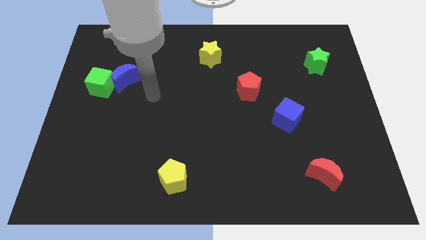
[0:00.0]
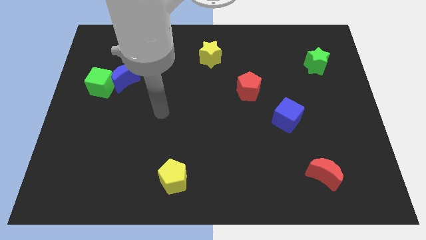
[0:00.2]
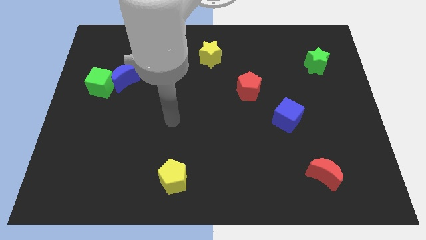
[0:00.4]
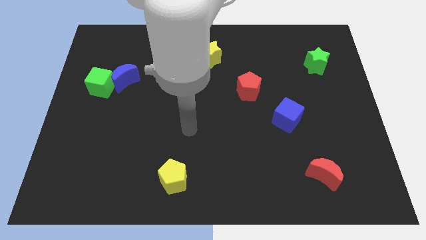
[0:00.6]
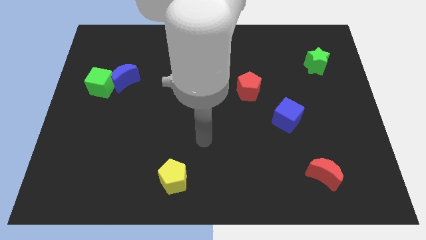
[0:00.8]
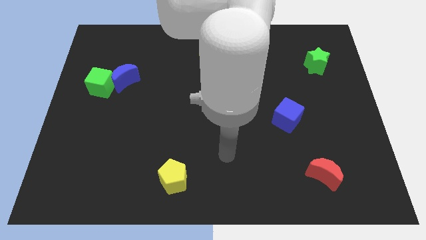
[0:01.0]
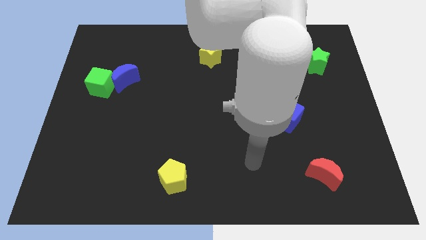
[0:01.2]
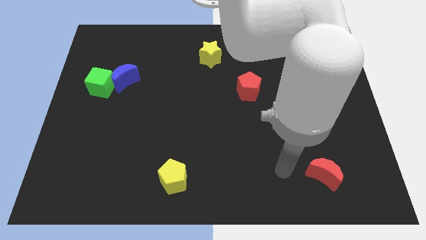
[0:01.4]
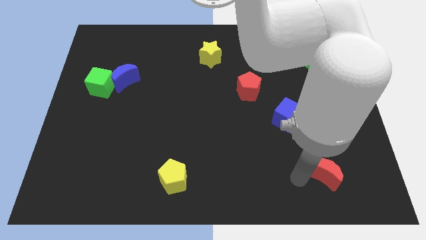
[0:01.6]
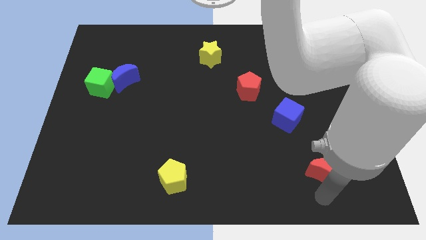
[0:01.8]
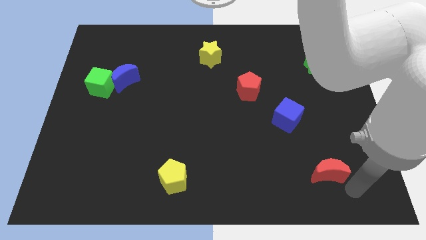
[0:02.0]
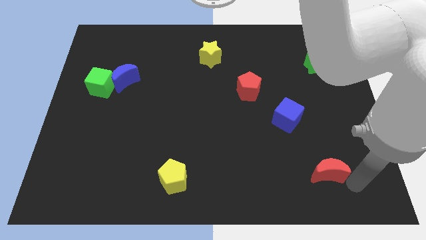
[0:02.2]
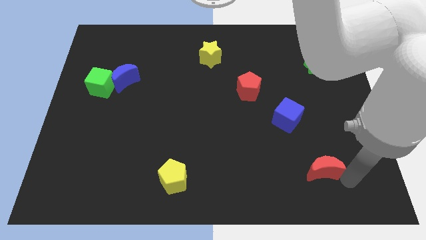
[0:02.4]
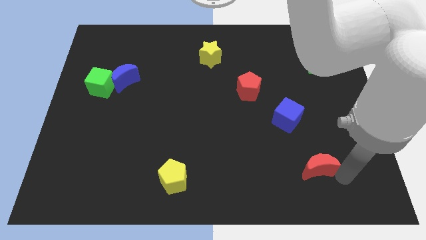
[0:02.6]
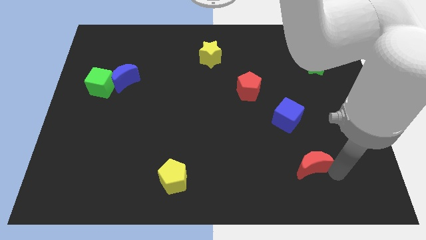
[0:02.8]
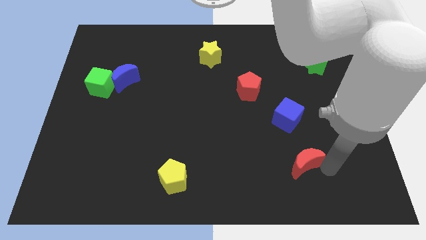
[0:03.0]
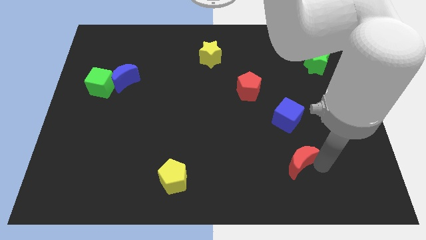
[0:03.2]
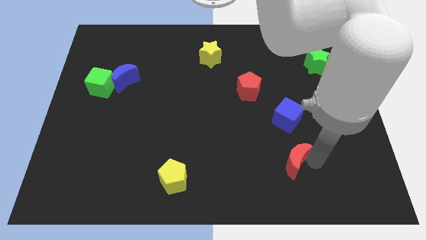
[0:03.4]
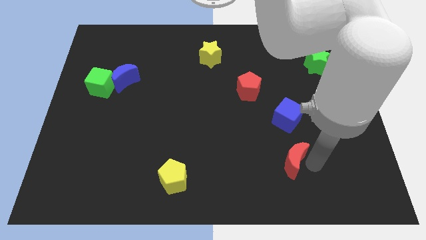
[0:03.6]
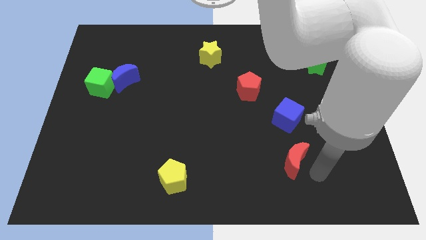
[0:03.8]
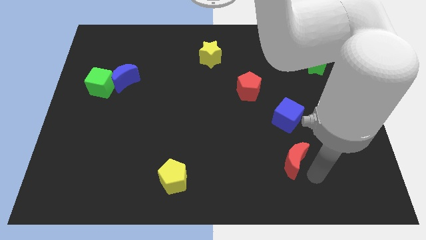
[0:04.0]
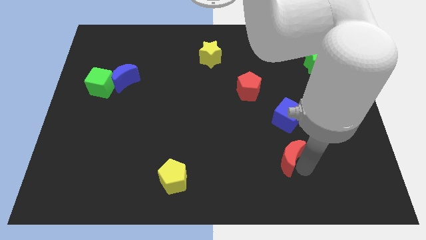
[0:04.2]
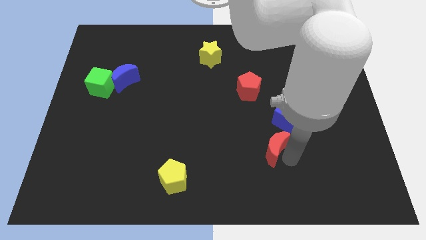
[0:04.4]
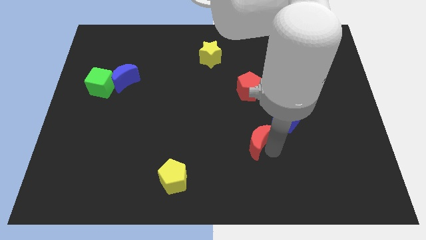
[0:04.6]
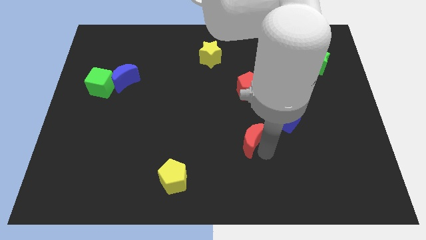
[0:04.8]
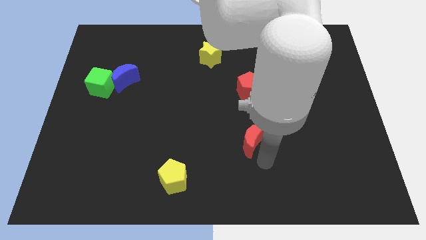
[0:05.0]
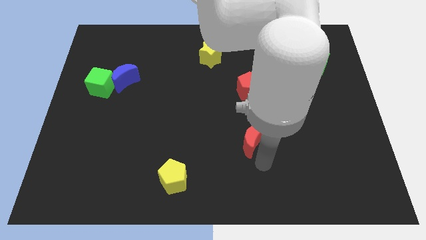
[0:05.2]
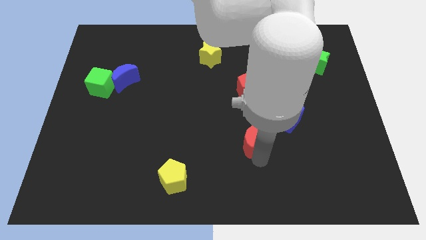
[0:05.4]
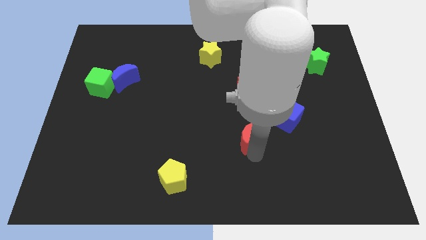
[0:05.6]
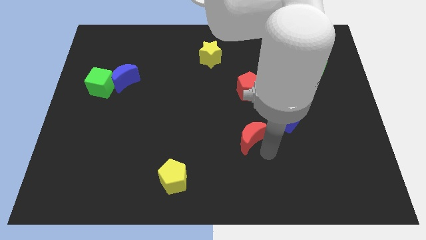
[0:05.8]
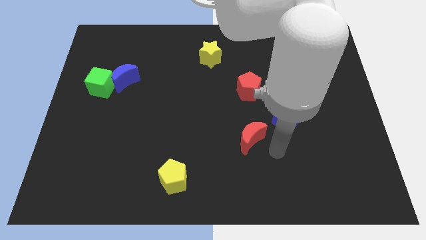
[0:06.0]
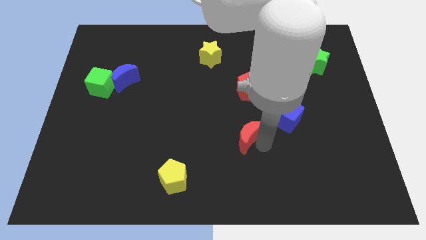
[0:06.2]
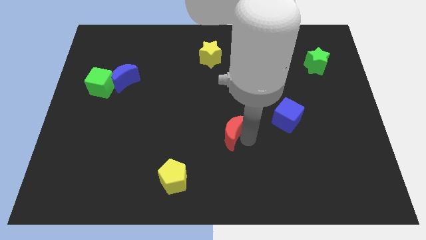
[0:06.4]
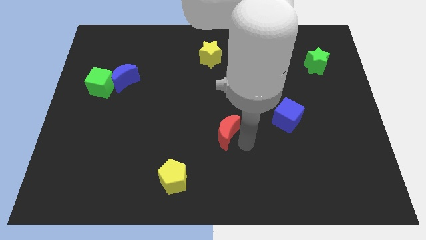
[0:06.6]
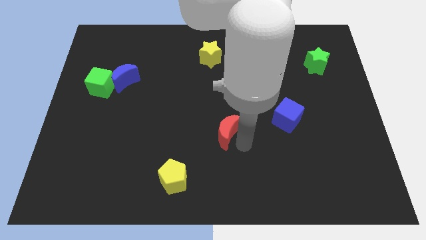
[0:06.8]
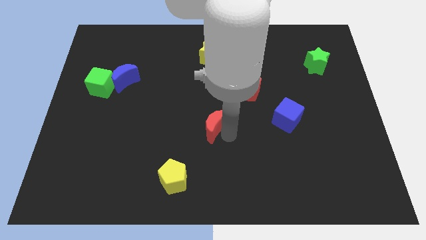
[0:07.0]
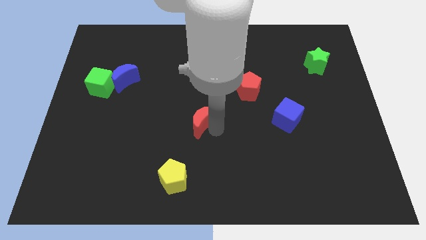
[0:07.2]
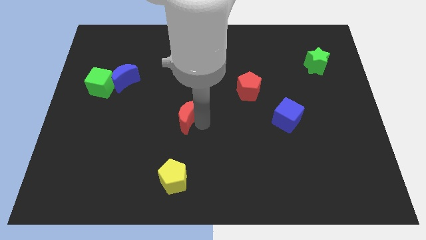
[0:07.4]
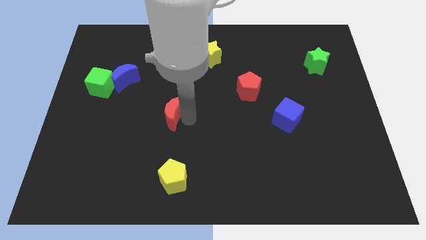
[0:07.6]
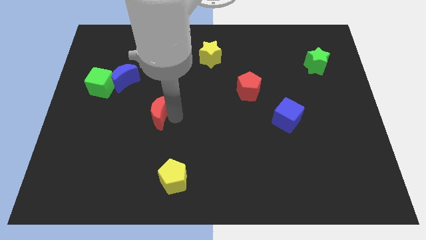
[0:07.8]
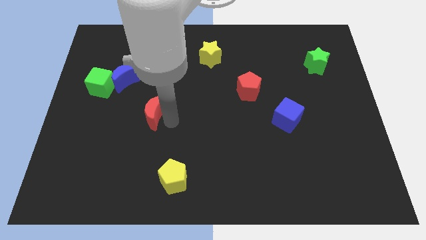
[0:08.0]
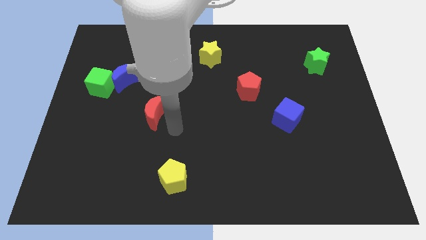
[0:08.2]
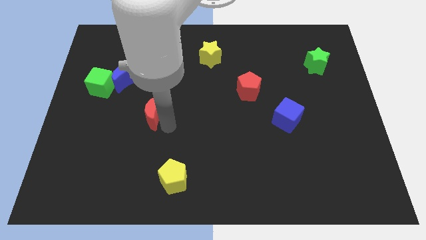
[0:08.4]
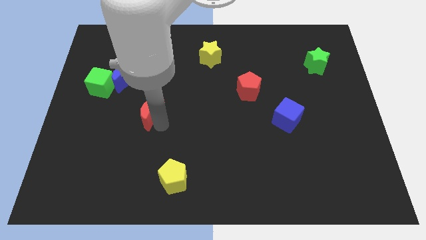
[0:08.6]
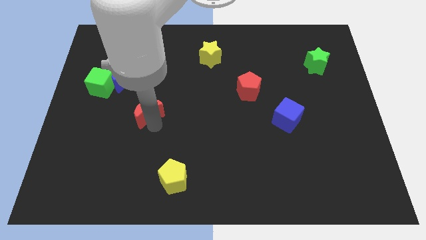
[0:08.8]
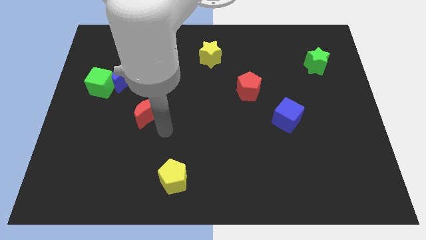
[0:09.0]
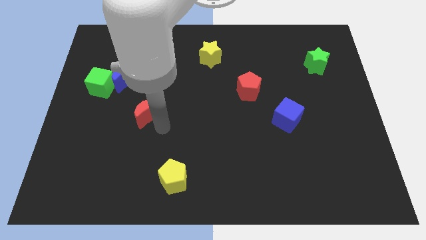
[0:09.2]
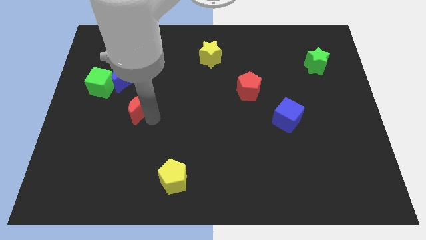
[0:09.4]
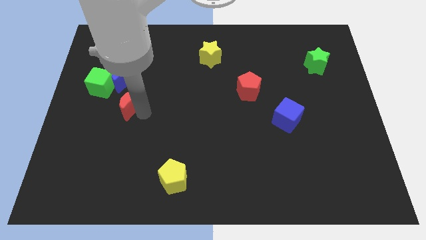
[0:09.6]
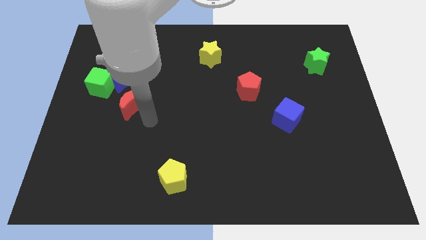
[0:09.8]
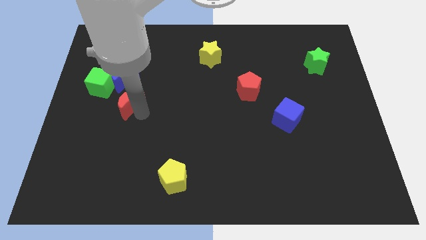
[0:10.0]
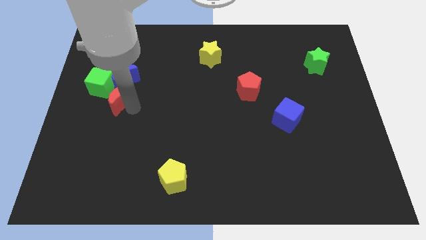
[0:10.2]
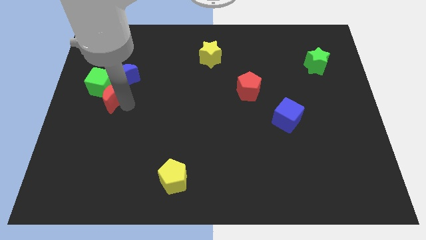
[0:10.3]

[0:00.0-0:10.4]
slide the red moon towards the green cube

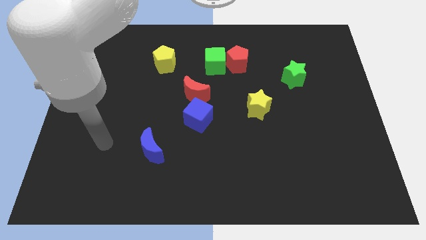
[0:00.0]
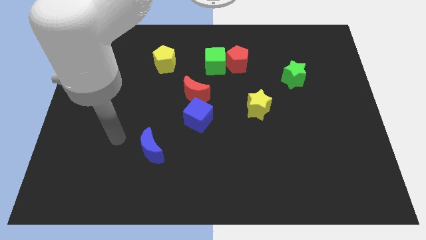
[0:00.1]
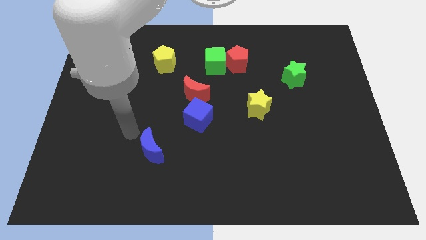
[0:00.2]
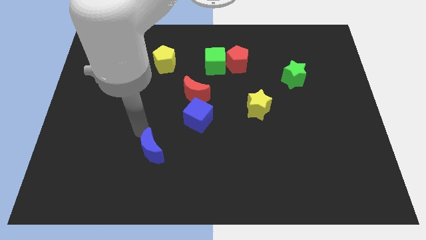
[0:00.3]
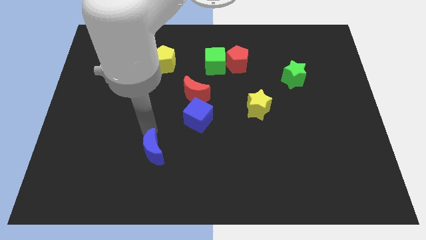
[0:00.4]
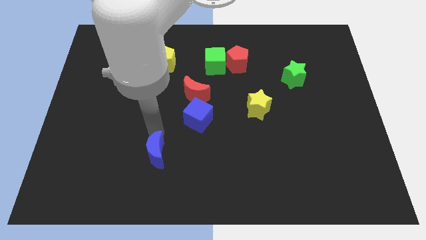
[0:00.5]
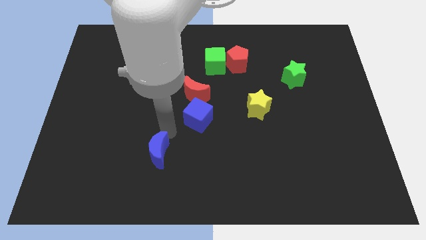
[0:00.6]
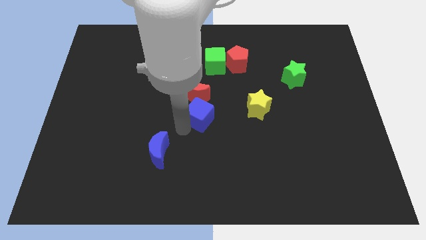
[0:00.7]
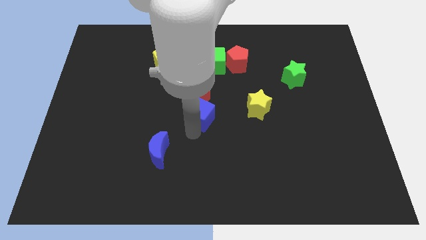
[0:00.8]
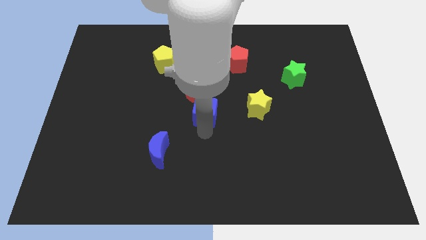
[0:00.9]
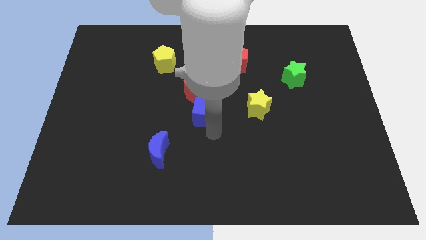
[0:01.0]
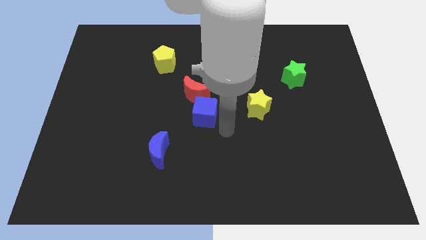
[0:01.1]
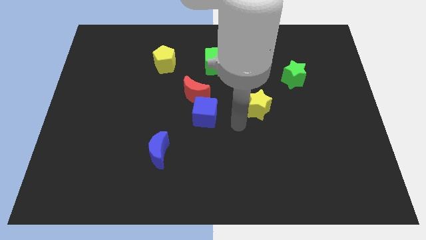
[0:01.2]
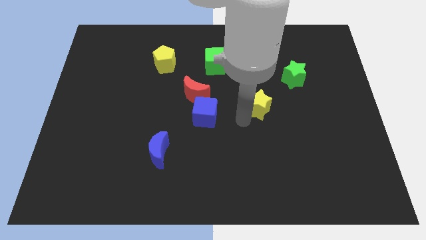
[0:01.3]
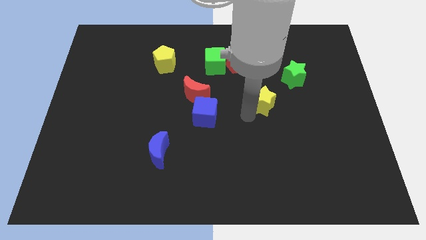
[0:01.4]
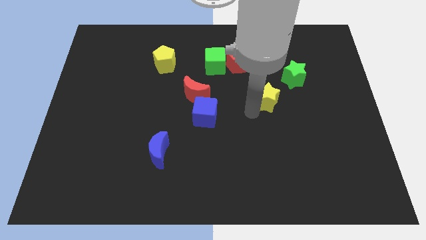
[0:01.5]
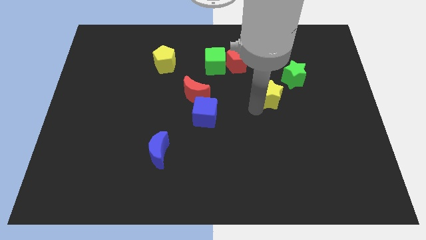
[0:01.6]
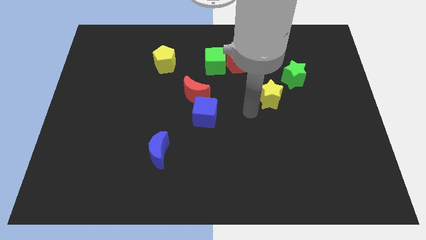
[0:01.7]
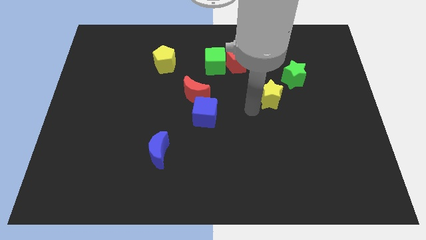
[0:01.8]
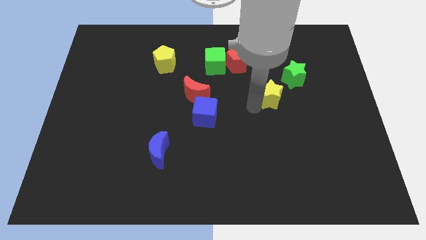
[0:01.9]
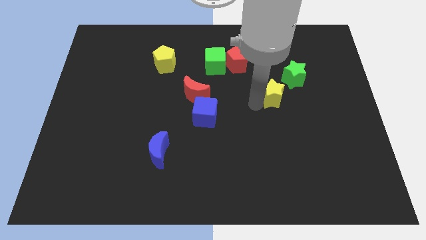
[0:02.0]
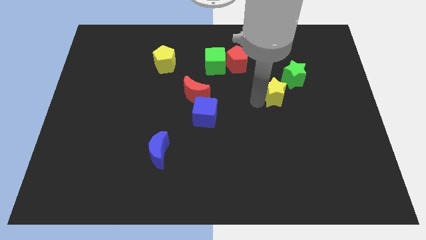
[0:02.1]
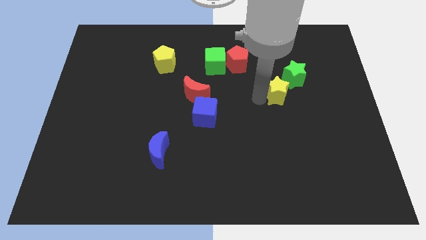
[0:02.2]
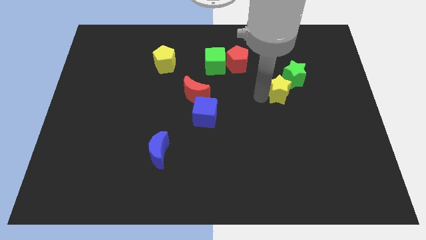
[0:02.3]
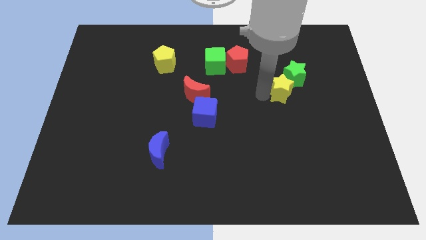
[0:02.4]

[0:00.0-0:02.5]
slide the yellow star close to the green star
